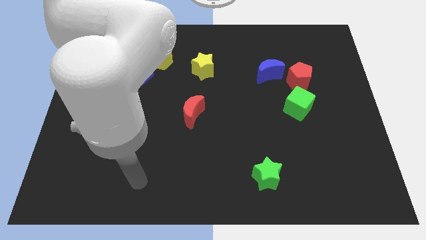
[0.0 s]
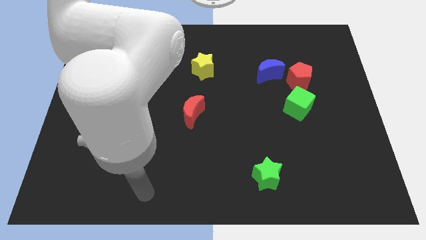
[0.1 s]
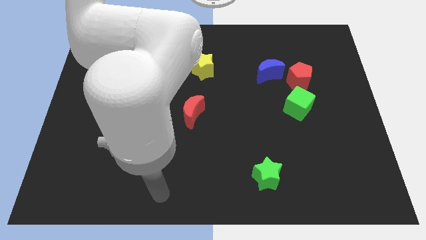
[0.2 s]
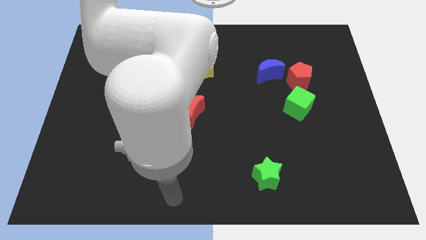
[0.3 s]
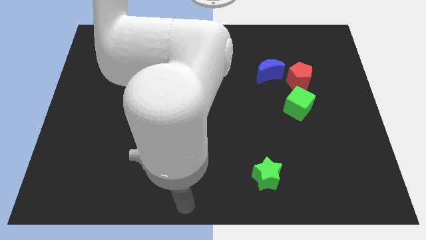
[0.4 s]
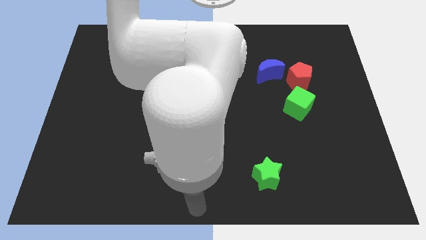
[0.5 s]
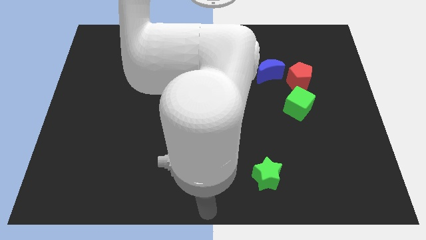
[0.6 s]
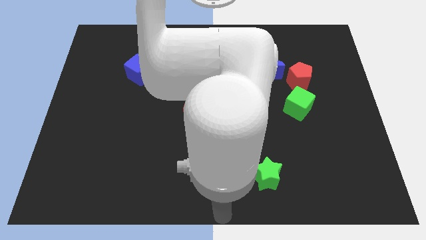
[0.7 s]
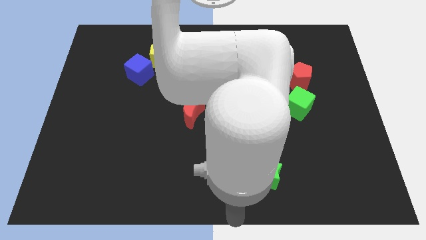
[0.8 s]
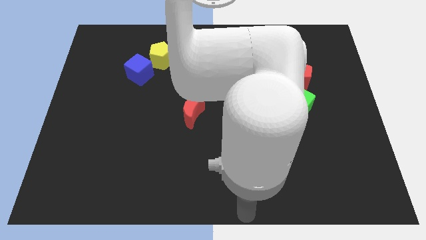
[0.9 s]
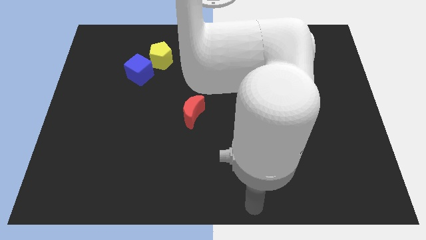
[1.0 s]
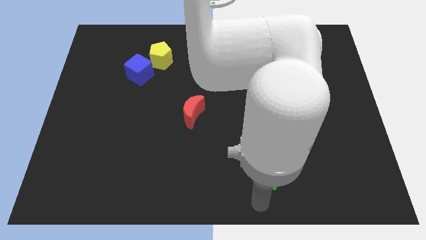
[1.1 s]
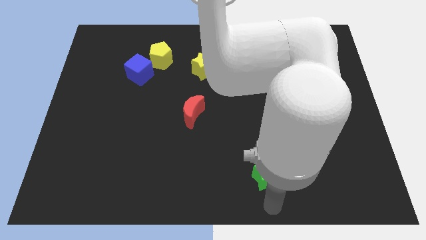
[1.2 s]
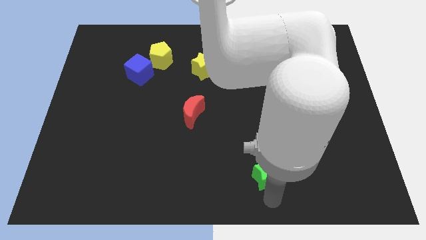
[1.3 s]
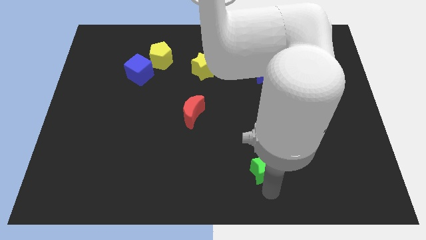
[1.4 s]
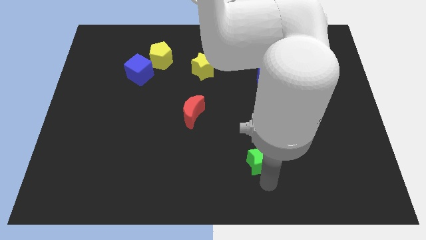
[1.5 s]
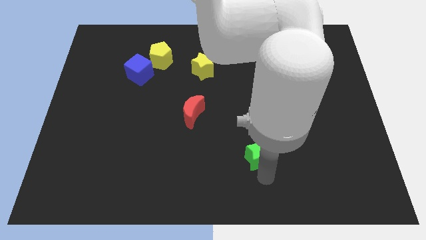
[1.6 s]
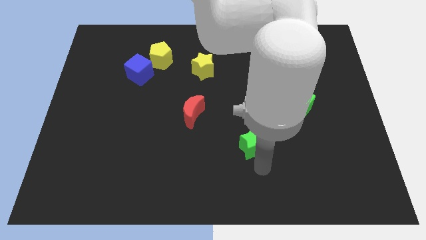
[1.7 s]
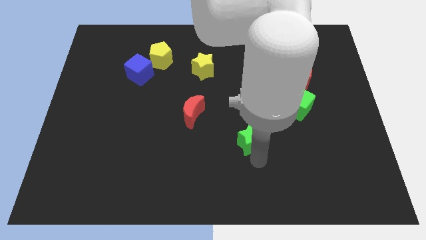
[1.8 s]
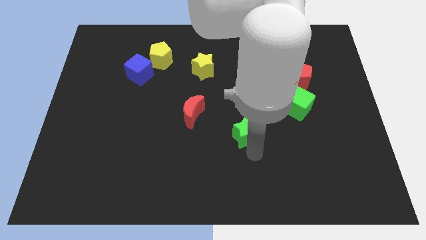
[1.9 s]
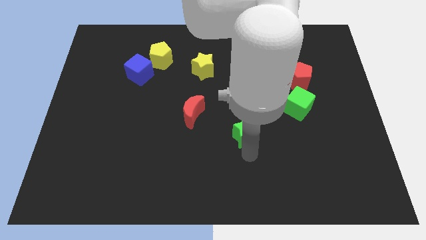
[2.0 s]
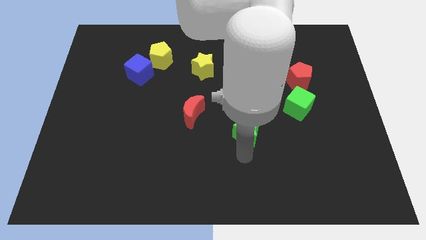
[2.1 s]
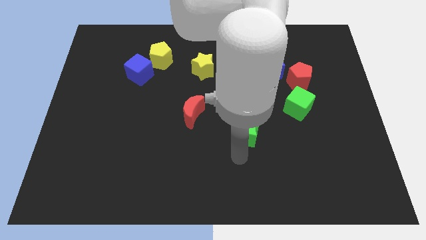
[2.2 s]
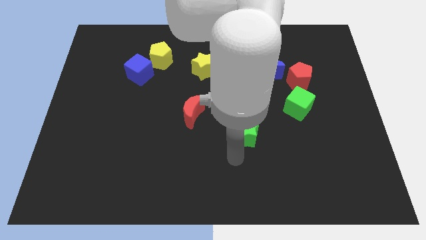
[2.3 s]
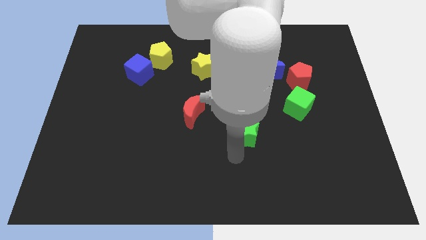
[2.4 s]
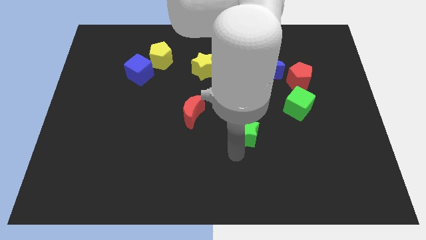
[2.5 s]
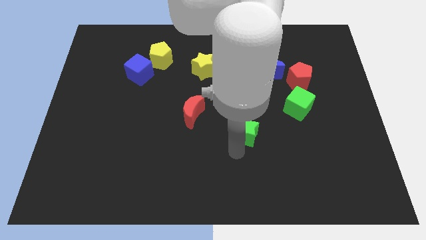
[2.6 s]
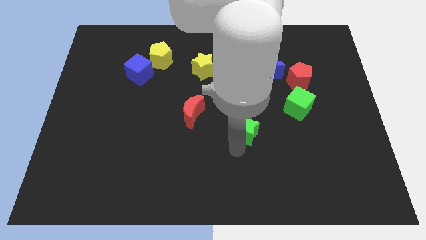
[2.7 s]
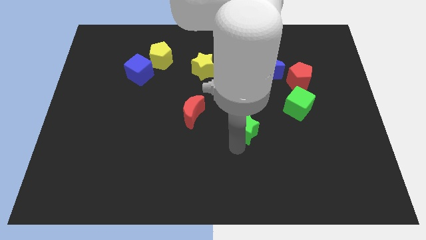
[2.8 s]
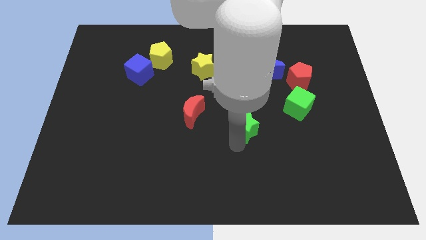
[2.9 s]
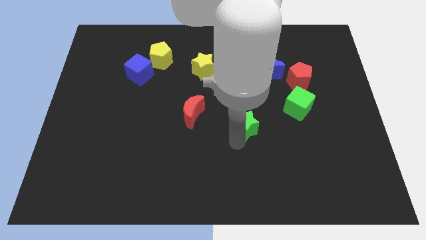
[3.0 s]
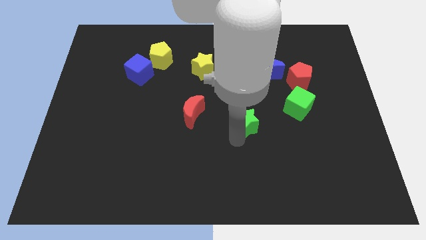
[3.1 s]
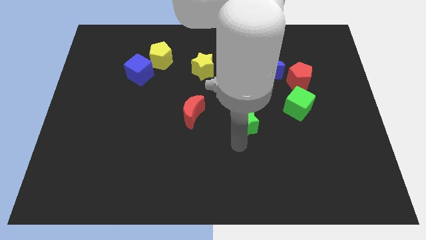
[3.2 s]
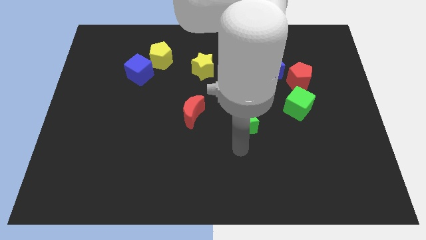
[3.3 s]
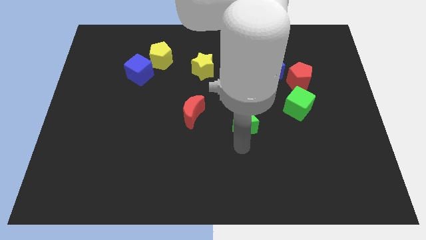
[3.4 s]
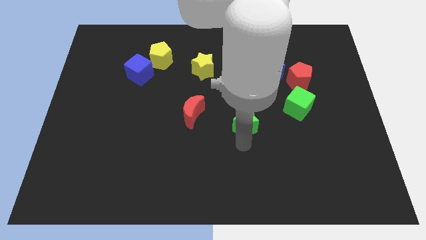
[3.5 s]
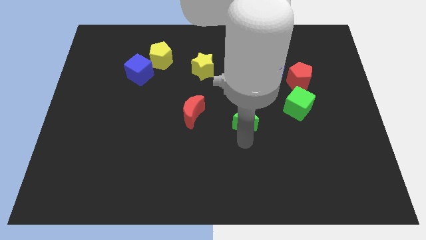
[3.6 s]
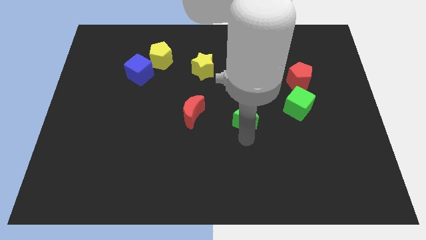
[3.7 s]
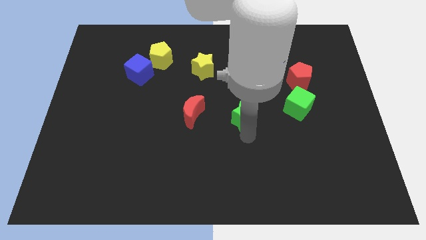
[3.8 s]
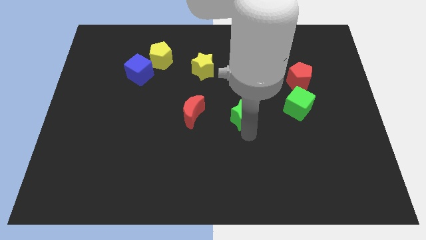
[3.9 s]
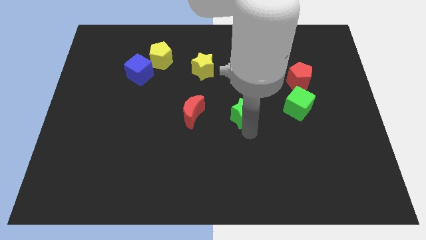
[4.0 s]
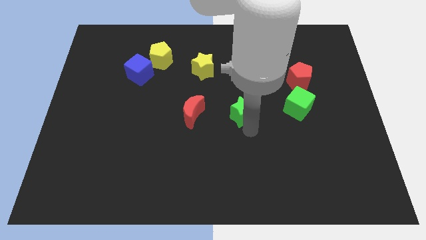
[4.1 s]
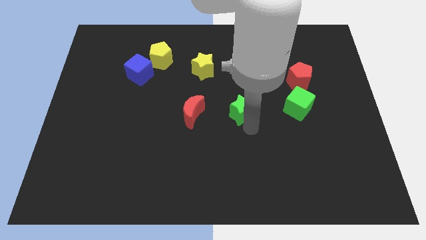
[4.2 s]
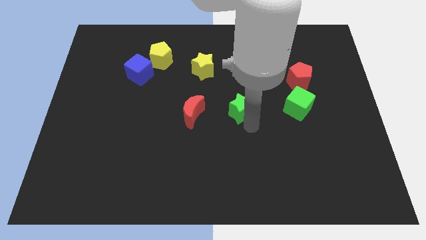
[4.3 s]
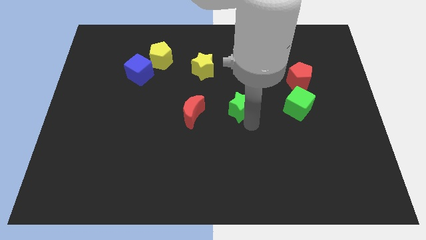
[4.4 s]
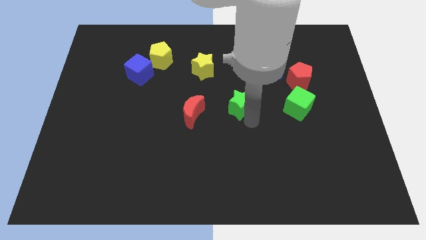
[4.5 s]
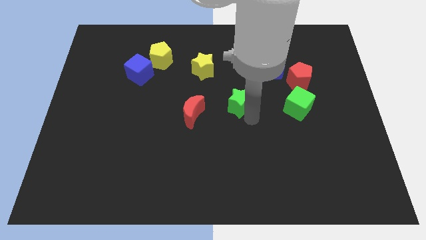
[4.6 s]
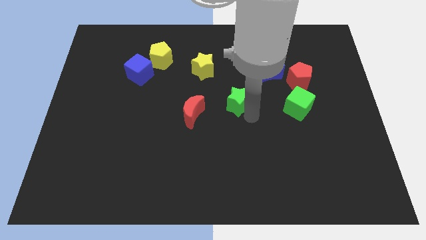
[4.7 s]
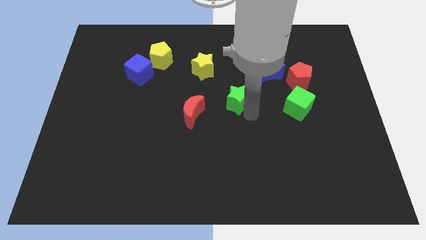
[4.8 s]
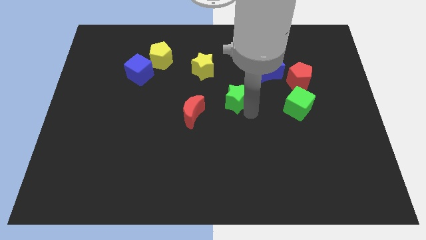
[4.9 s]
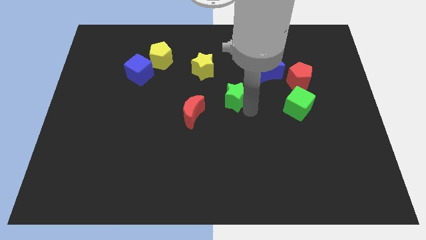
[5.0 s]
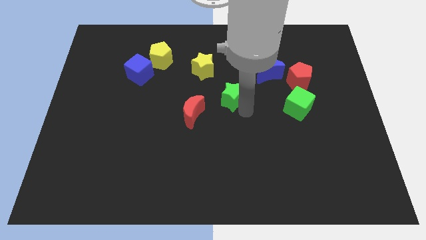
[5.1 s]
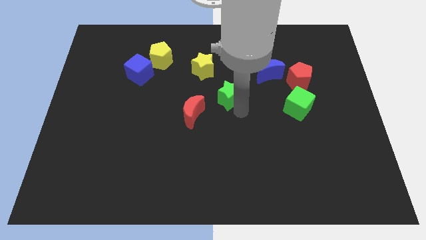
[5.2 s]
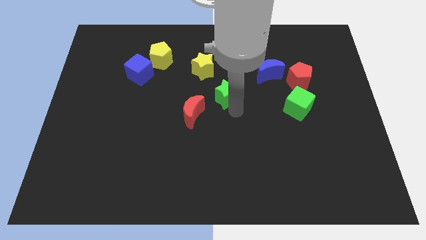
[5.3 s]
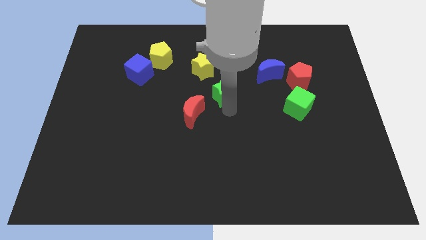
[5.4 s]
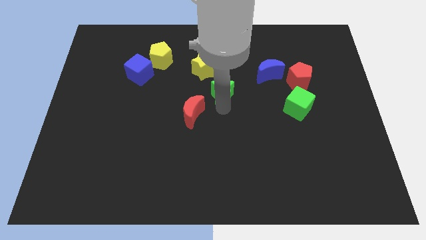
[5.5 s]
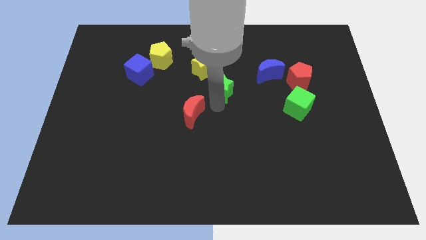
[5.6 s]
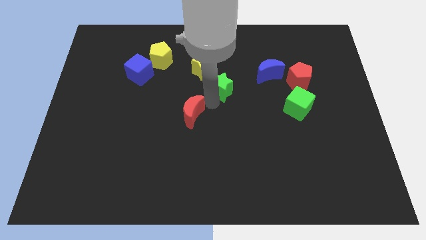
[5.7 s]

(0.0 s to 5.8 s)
slide the green star upwards

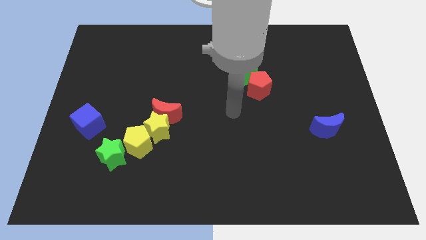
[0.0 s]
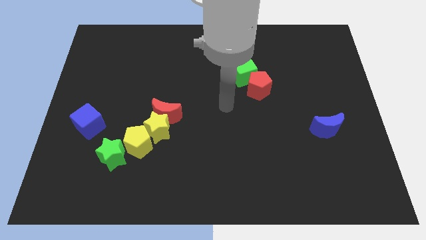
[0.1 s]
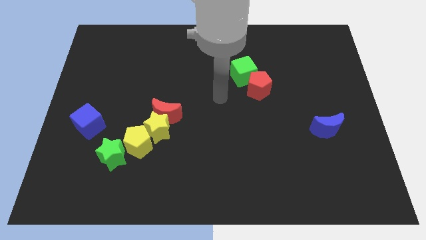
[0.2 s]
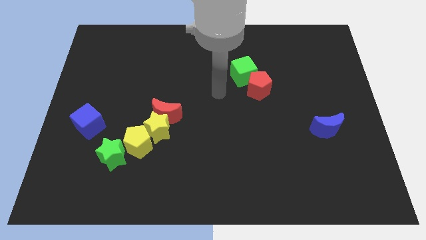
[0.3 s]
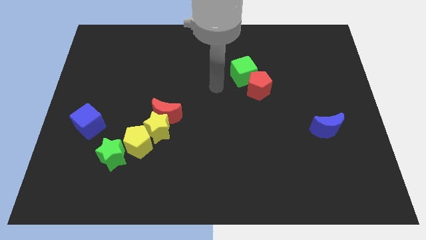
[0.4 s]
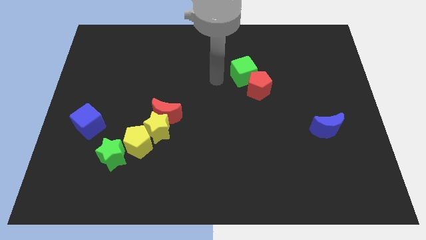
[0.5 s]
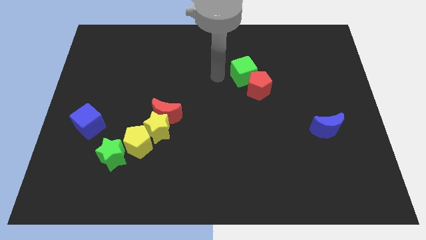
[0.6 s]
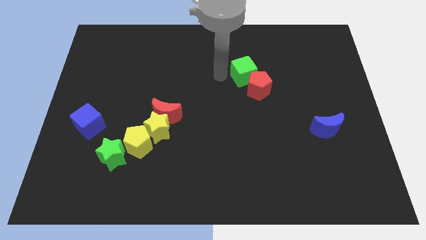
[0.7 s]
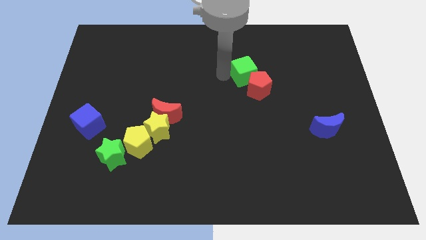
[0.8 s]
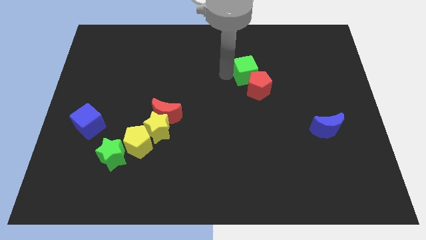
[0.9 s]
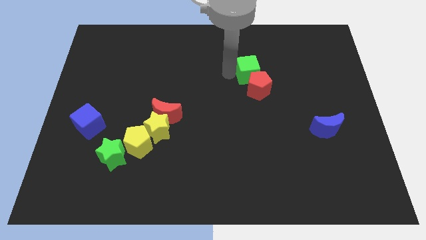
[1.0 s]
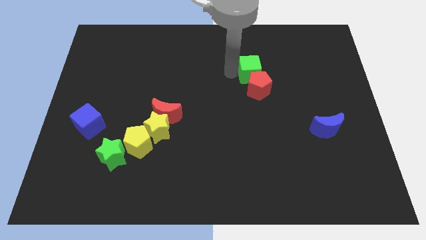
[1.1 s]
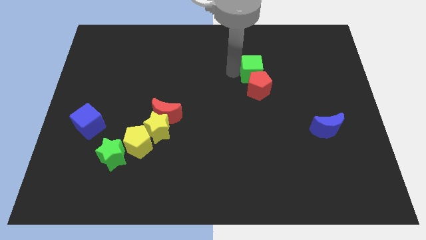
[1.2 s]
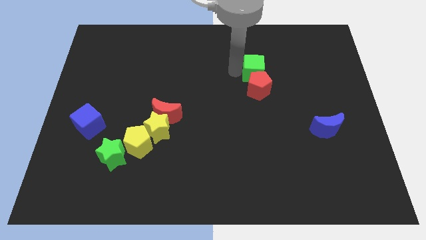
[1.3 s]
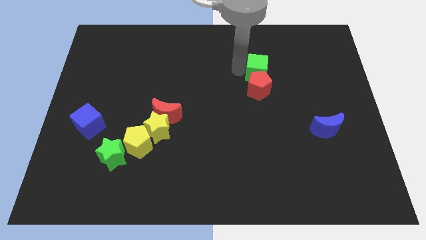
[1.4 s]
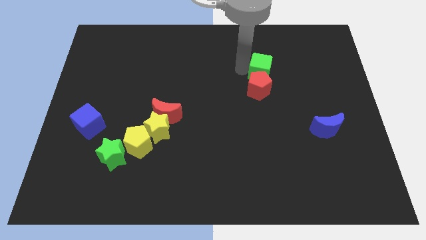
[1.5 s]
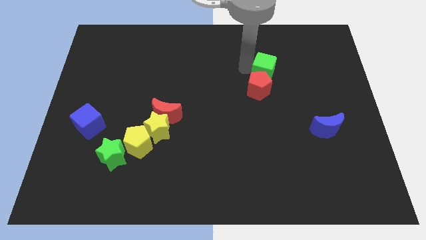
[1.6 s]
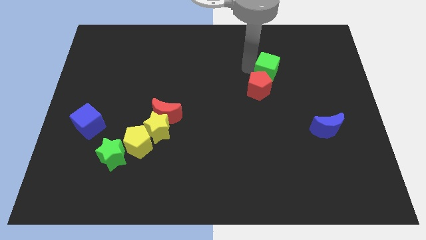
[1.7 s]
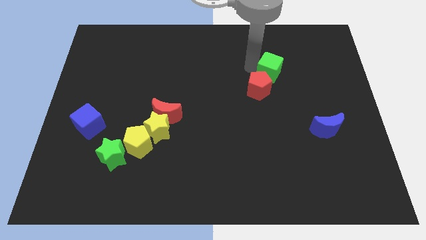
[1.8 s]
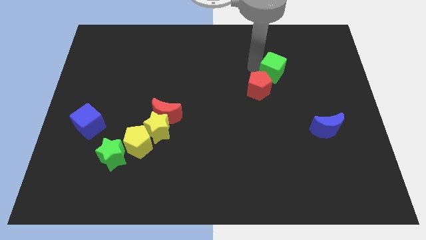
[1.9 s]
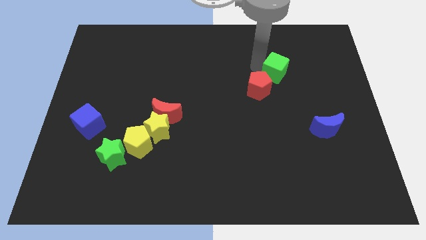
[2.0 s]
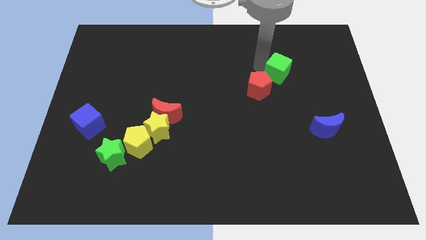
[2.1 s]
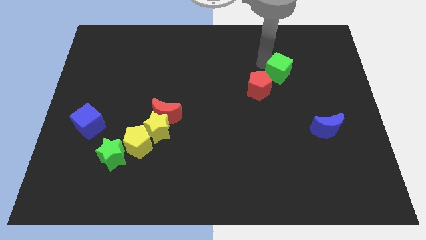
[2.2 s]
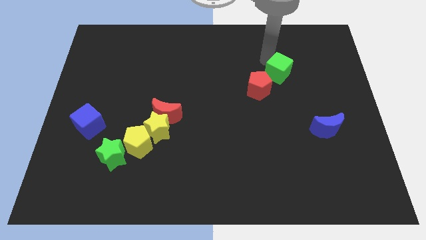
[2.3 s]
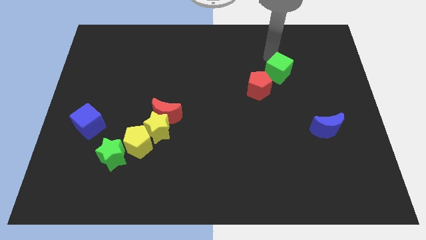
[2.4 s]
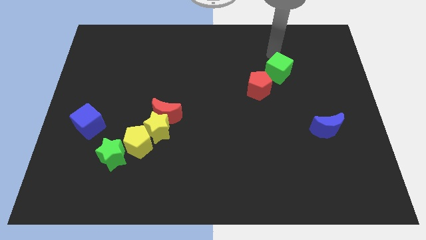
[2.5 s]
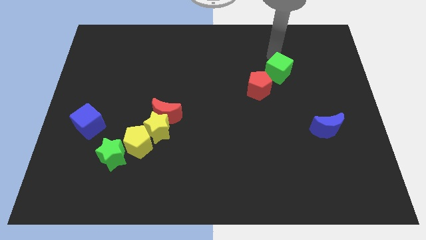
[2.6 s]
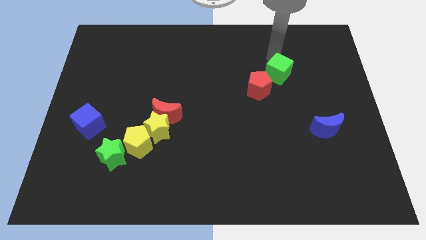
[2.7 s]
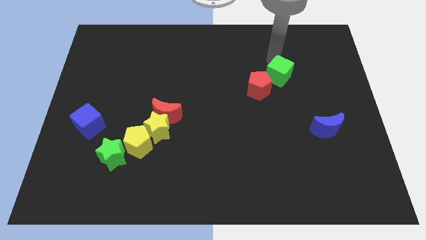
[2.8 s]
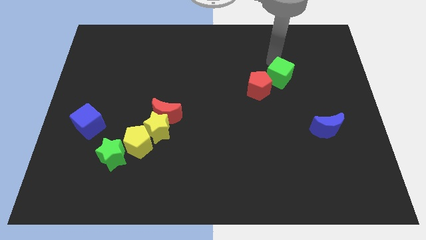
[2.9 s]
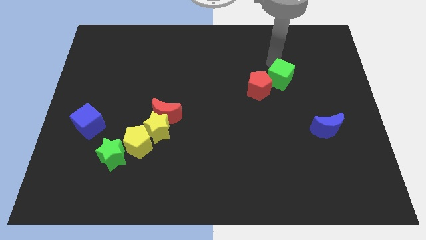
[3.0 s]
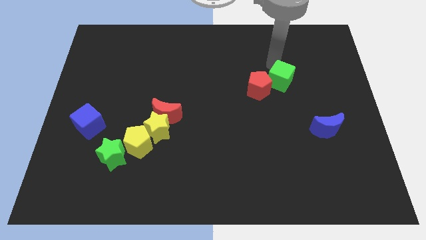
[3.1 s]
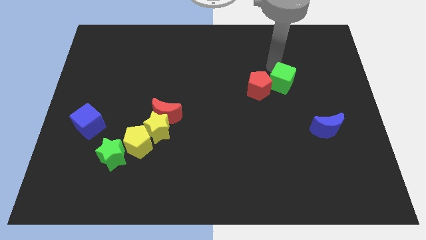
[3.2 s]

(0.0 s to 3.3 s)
push the green cube downwards and then to the right somewhat
